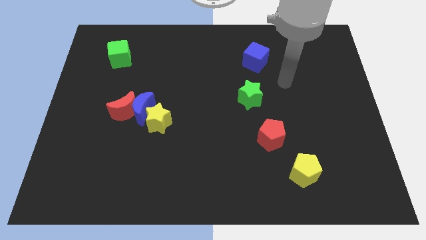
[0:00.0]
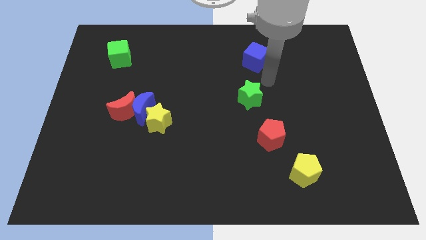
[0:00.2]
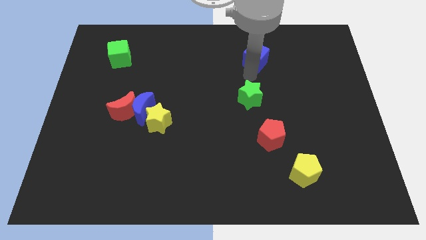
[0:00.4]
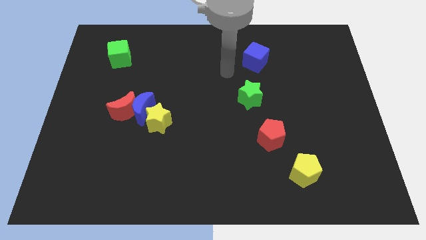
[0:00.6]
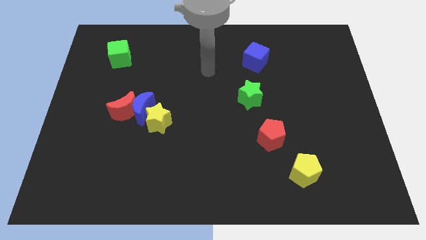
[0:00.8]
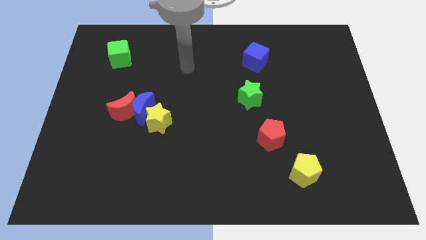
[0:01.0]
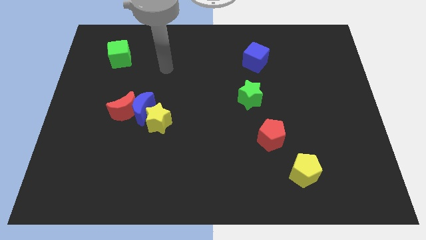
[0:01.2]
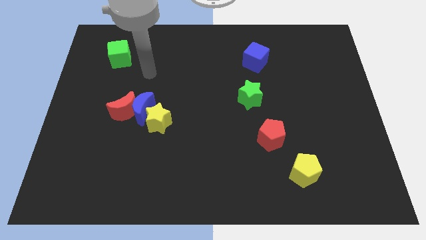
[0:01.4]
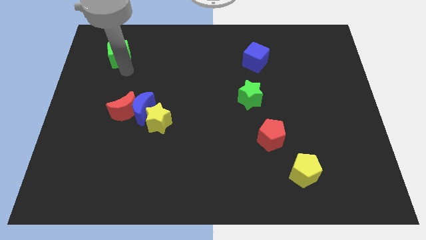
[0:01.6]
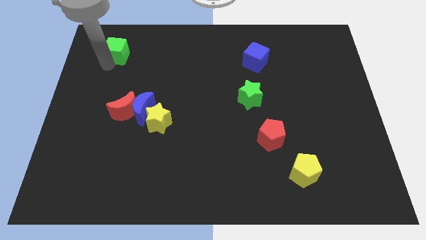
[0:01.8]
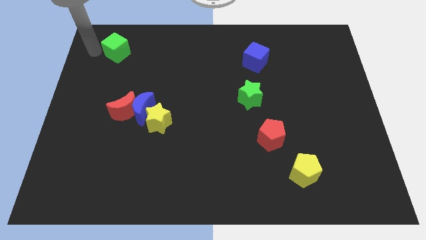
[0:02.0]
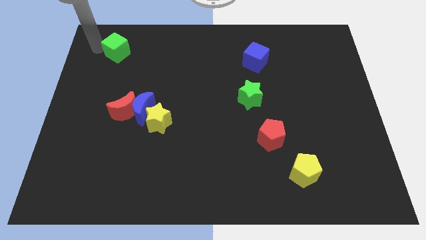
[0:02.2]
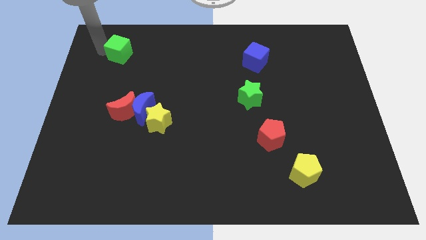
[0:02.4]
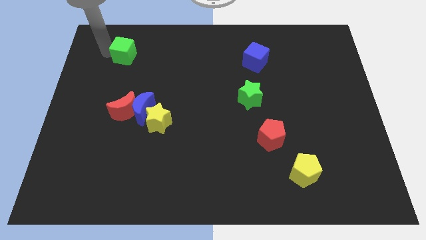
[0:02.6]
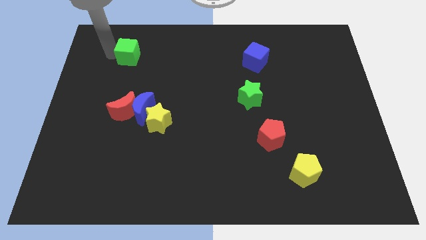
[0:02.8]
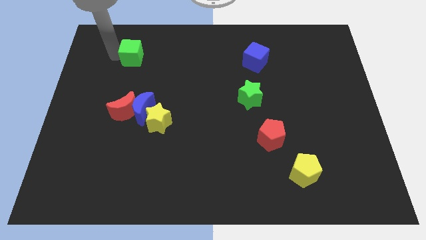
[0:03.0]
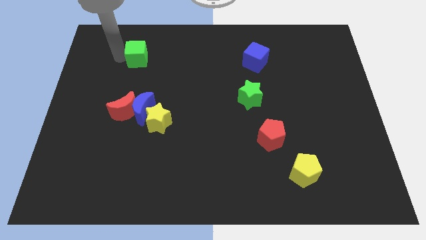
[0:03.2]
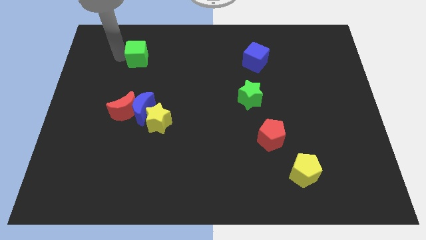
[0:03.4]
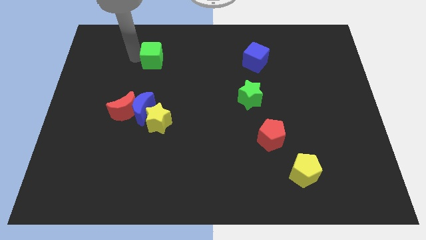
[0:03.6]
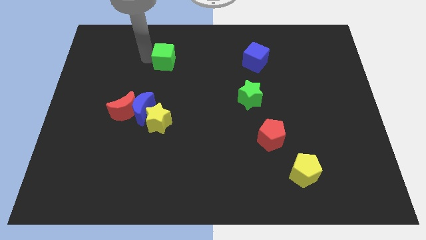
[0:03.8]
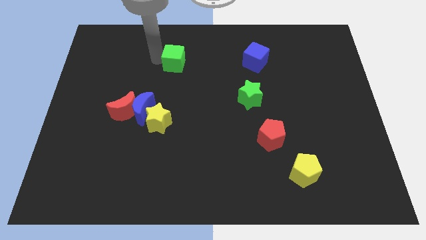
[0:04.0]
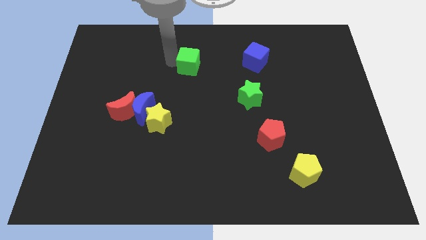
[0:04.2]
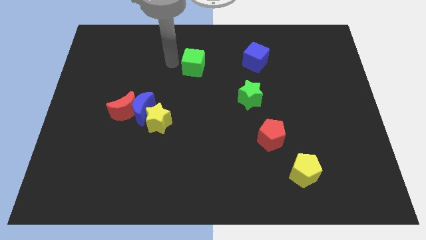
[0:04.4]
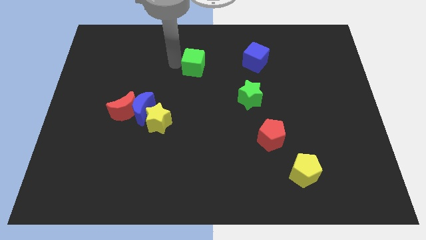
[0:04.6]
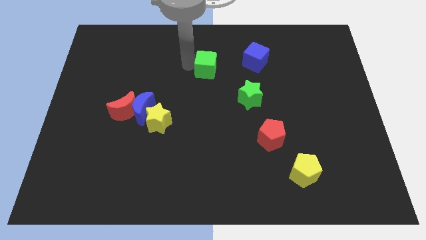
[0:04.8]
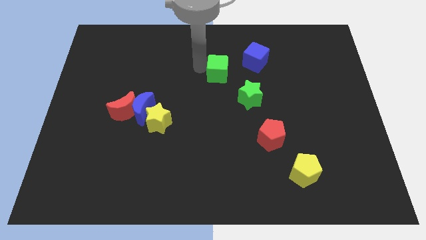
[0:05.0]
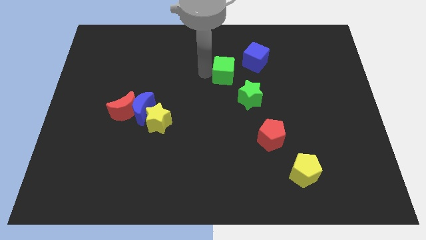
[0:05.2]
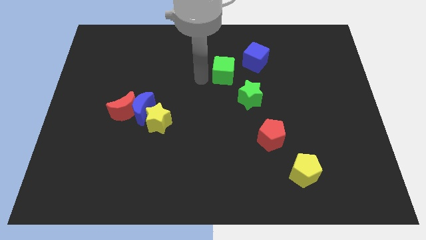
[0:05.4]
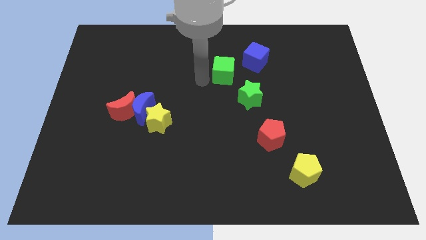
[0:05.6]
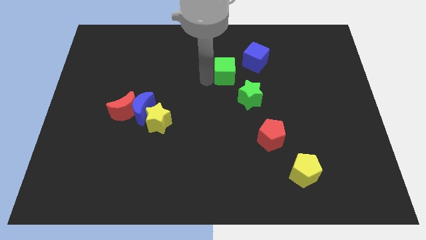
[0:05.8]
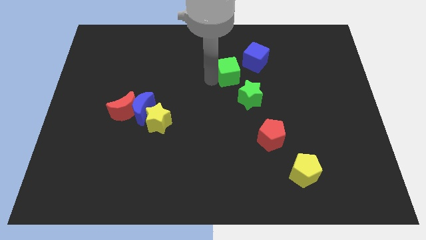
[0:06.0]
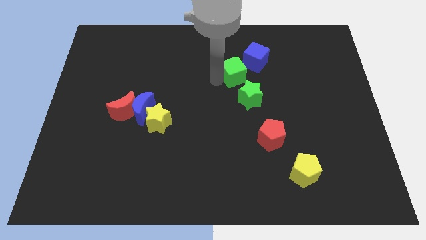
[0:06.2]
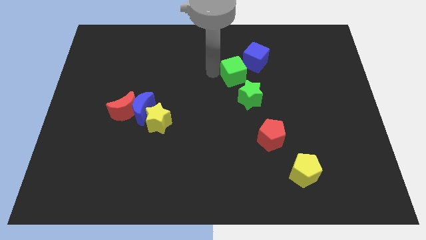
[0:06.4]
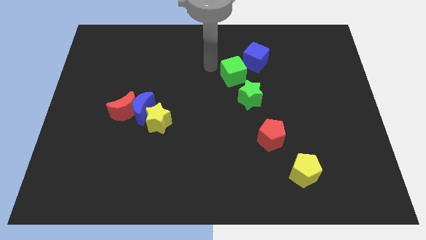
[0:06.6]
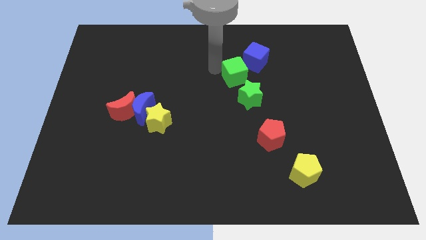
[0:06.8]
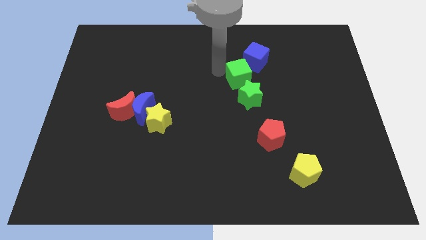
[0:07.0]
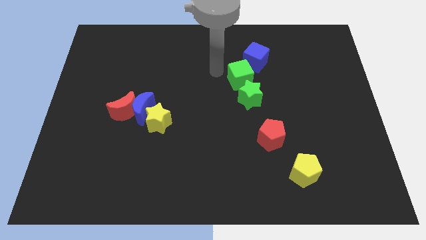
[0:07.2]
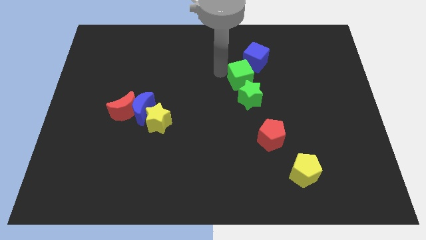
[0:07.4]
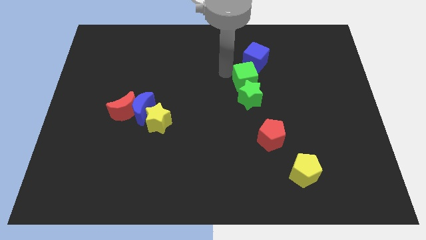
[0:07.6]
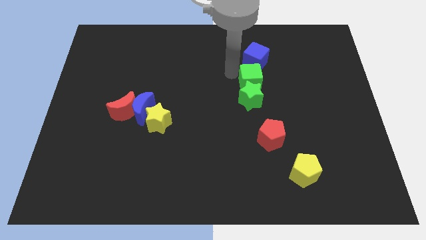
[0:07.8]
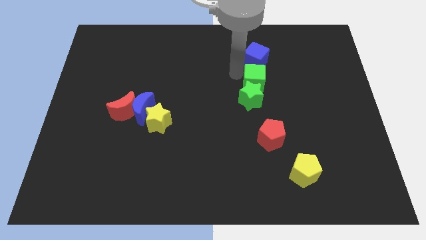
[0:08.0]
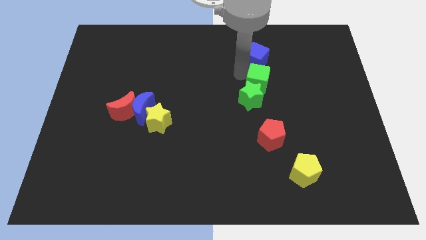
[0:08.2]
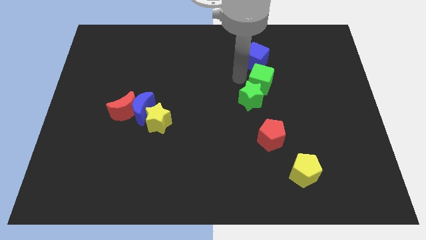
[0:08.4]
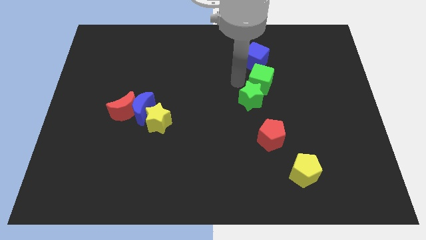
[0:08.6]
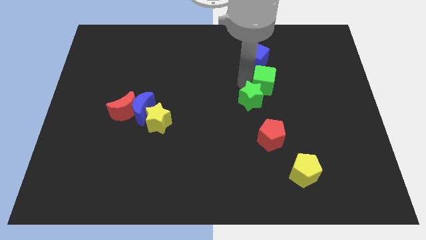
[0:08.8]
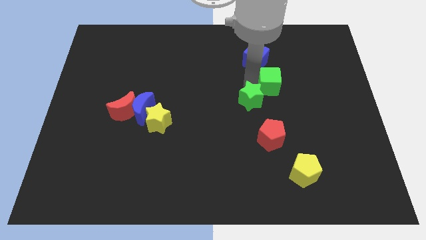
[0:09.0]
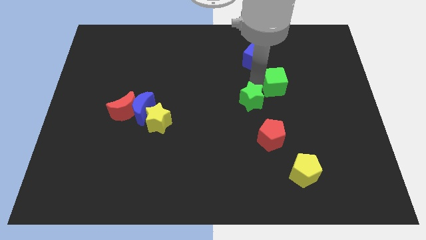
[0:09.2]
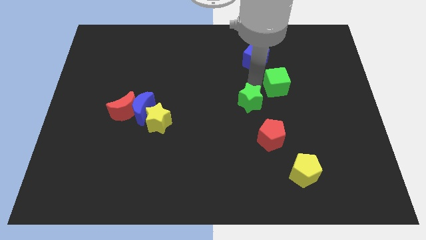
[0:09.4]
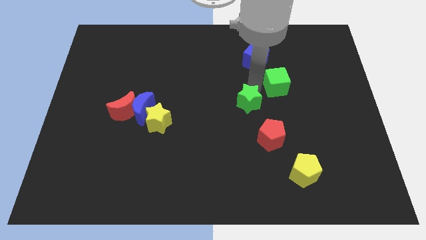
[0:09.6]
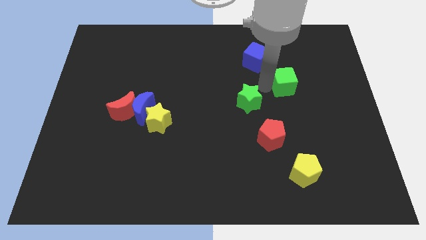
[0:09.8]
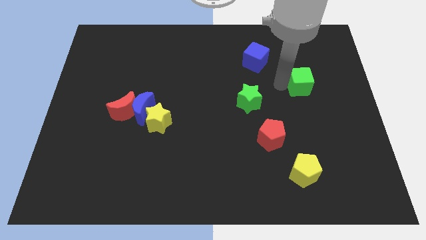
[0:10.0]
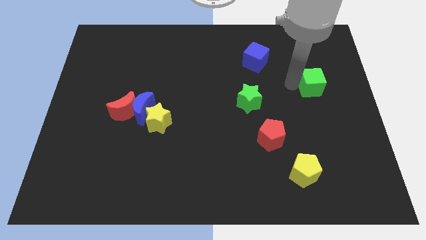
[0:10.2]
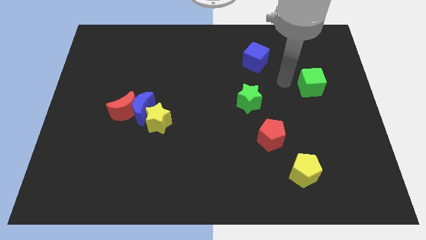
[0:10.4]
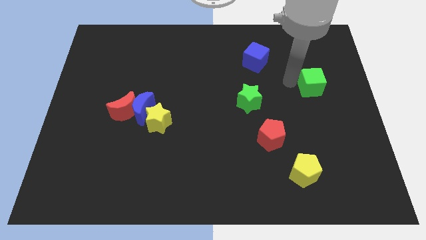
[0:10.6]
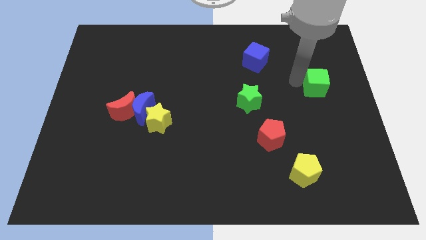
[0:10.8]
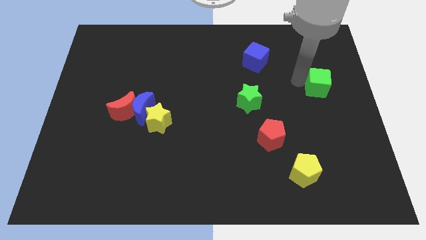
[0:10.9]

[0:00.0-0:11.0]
push the green cube to the right side of the board
